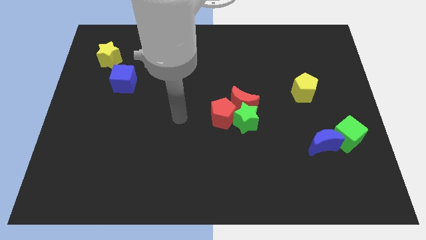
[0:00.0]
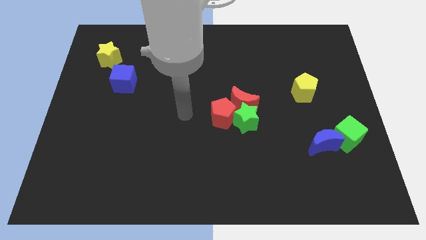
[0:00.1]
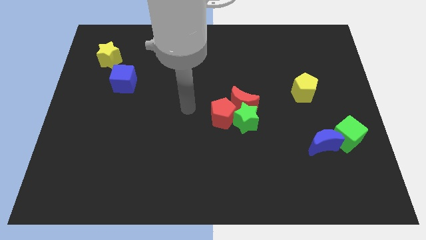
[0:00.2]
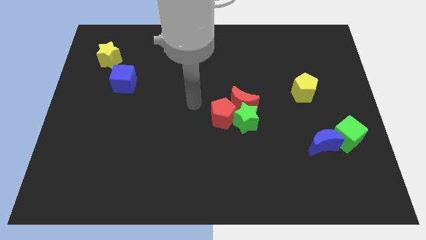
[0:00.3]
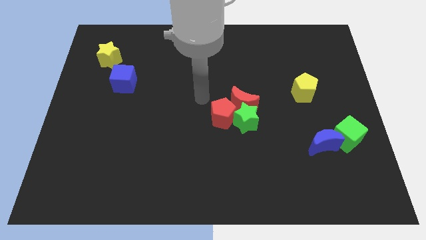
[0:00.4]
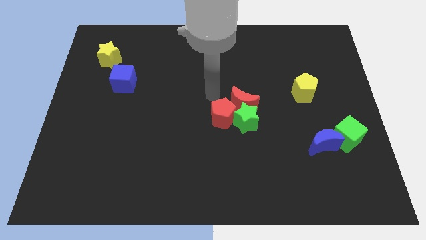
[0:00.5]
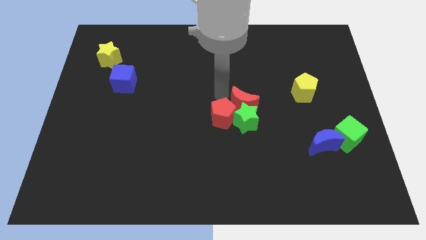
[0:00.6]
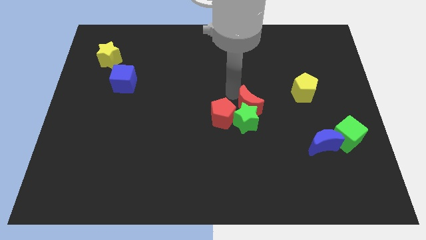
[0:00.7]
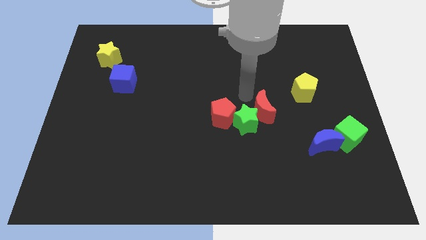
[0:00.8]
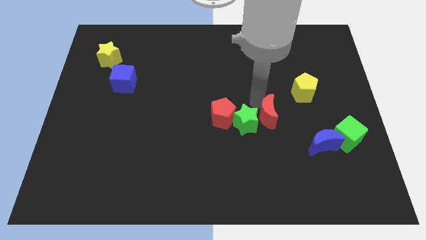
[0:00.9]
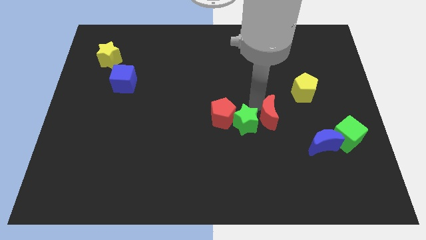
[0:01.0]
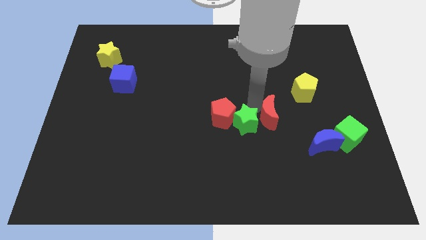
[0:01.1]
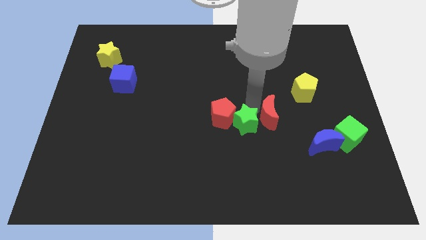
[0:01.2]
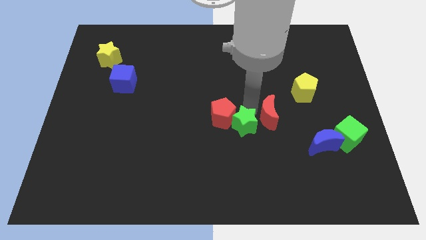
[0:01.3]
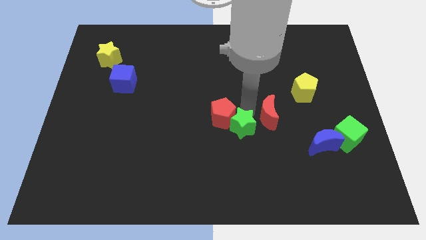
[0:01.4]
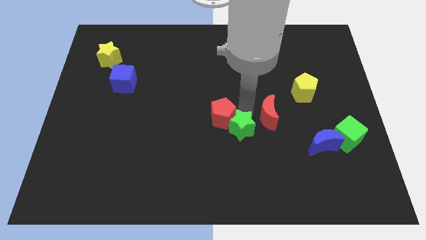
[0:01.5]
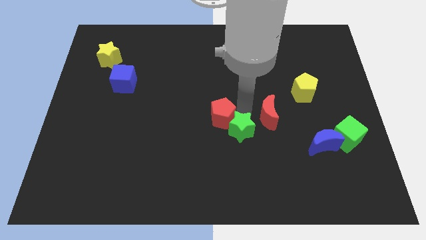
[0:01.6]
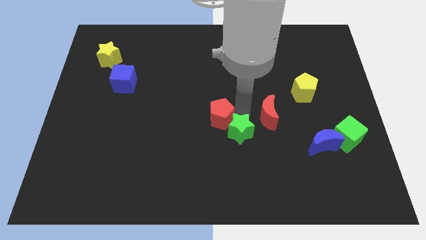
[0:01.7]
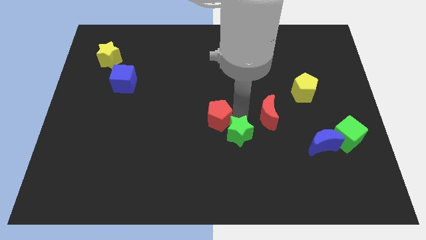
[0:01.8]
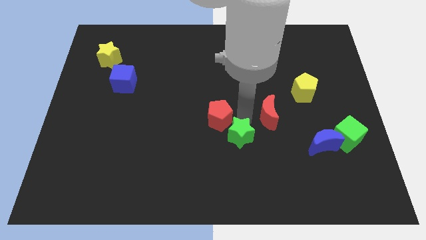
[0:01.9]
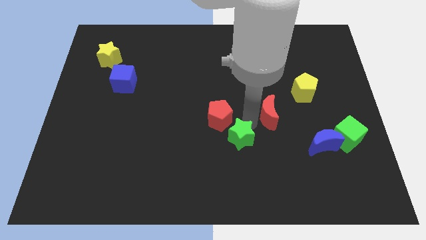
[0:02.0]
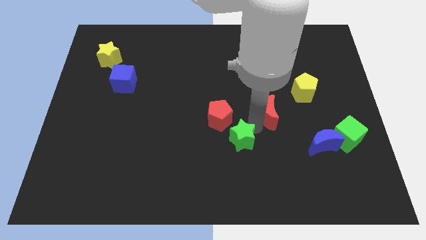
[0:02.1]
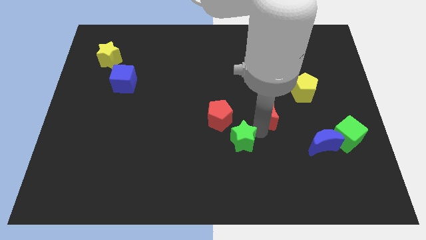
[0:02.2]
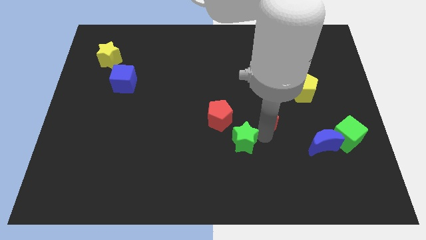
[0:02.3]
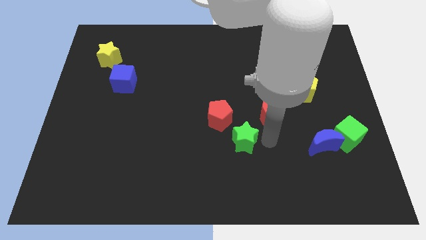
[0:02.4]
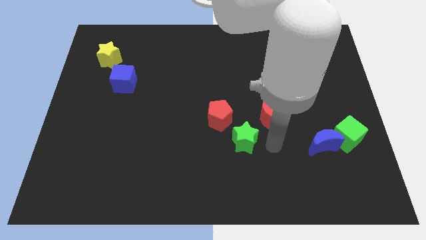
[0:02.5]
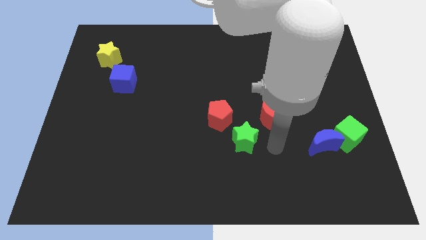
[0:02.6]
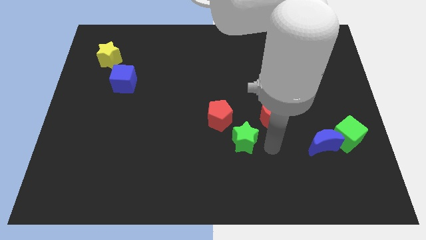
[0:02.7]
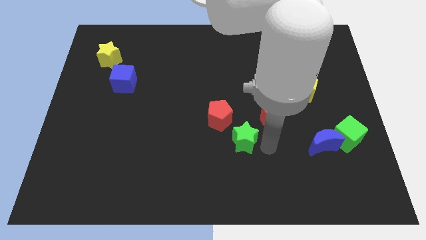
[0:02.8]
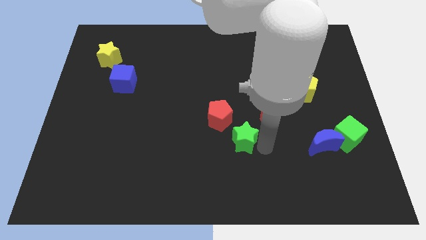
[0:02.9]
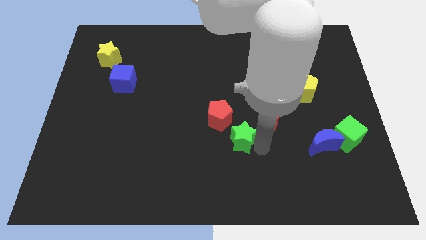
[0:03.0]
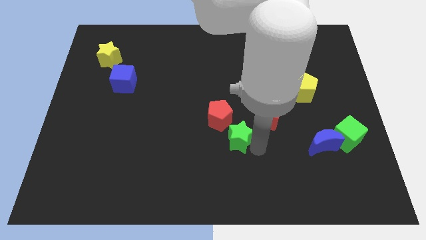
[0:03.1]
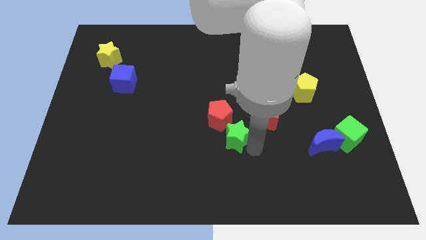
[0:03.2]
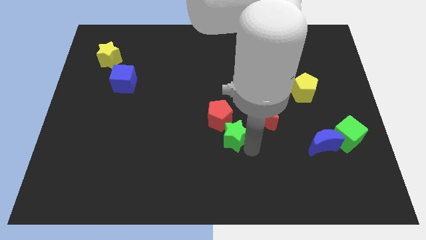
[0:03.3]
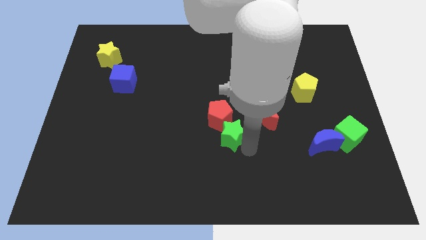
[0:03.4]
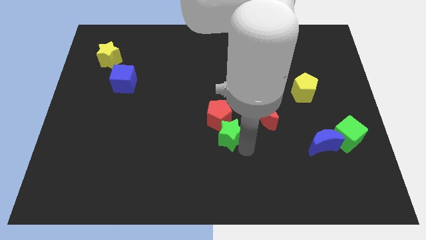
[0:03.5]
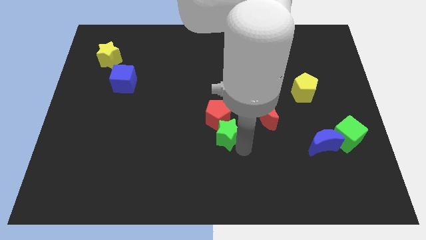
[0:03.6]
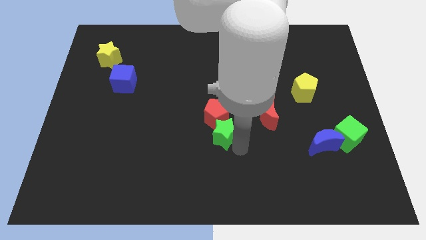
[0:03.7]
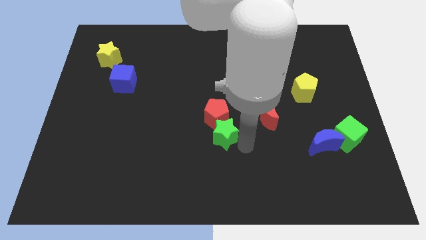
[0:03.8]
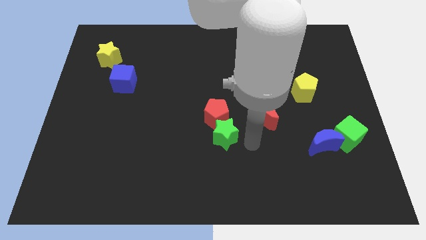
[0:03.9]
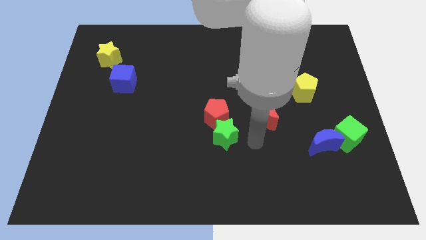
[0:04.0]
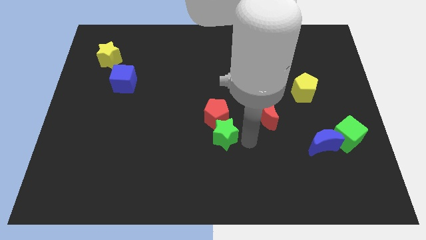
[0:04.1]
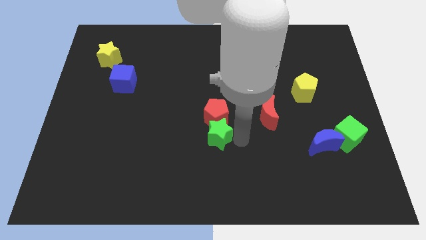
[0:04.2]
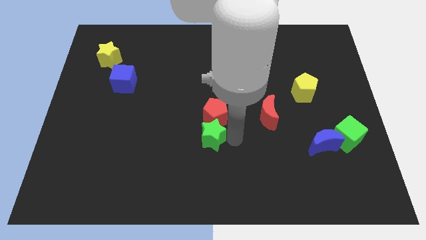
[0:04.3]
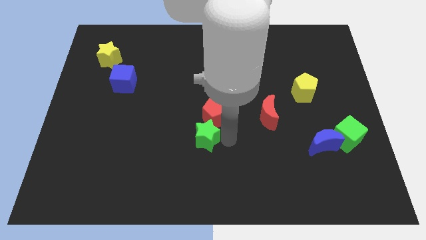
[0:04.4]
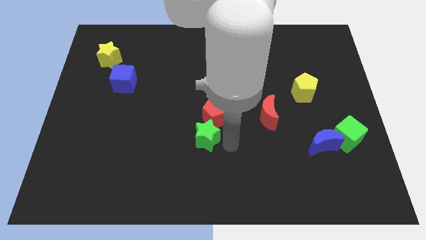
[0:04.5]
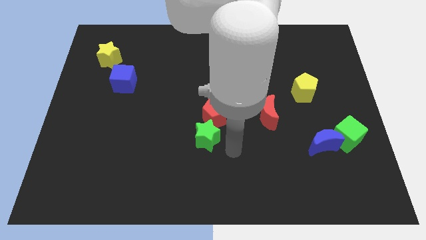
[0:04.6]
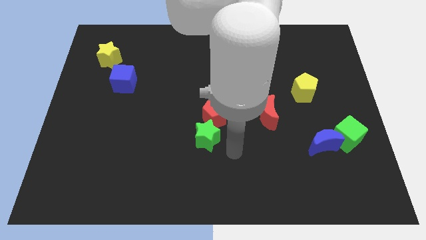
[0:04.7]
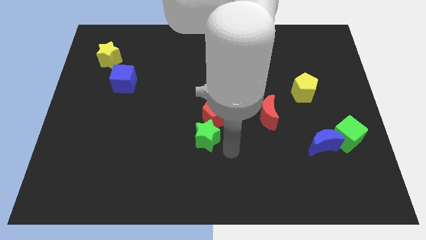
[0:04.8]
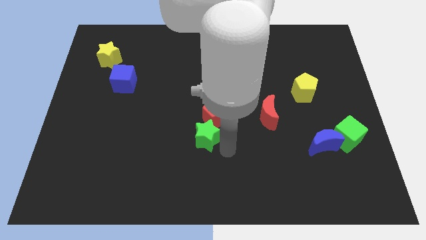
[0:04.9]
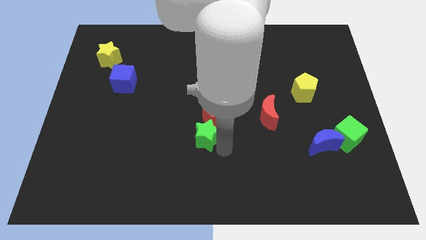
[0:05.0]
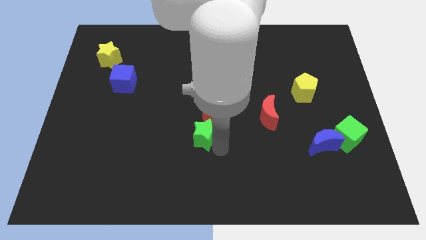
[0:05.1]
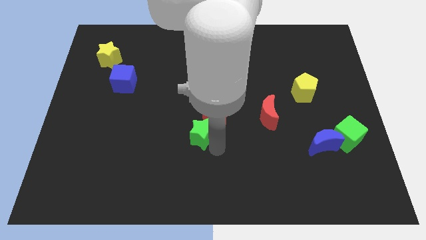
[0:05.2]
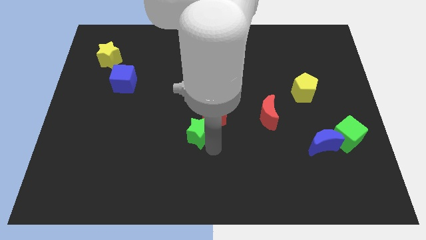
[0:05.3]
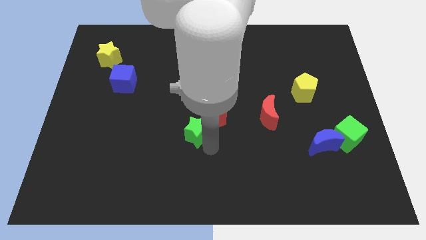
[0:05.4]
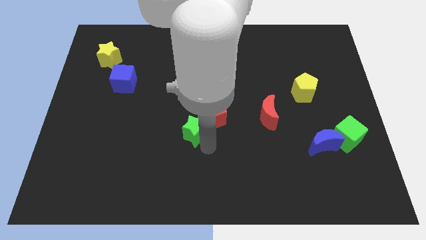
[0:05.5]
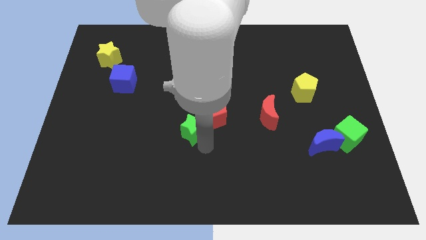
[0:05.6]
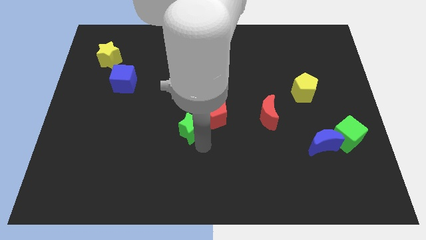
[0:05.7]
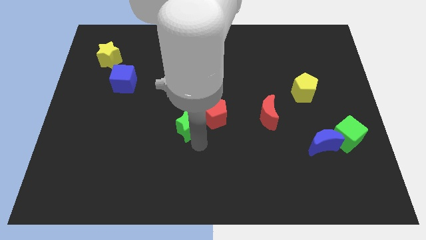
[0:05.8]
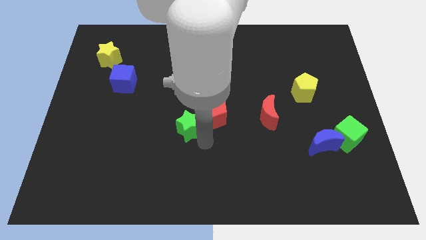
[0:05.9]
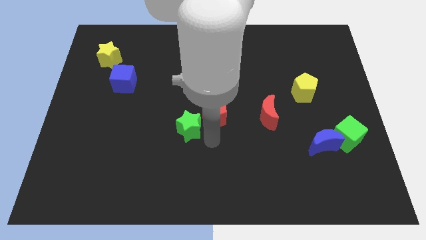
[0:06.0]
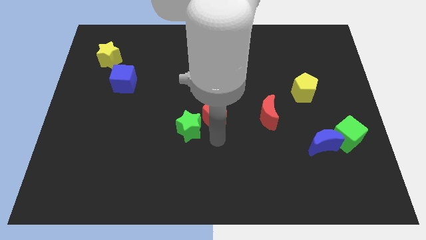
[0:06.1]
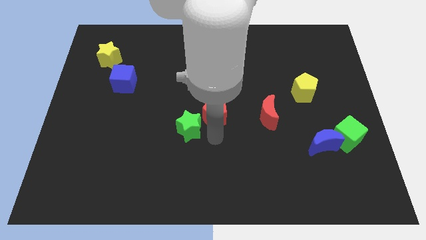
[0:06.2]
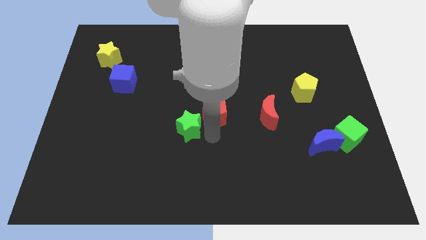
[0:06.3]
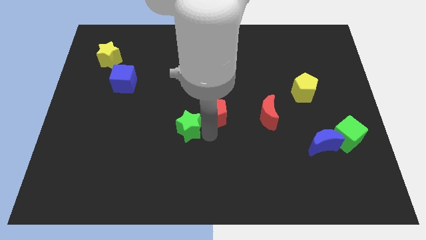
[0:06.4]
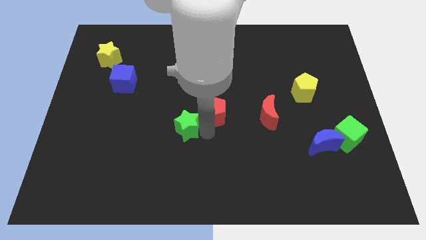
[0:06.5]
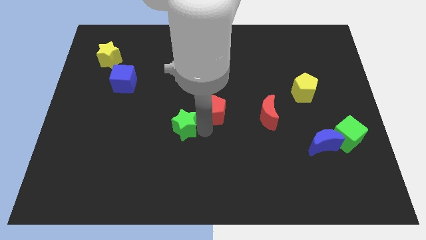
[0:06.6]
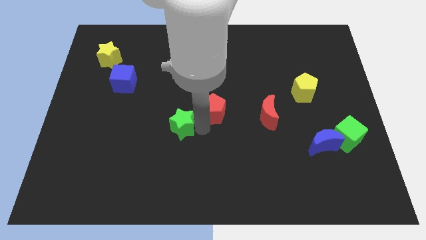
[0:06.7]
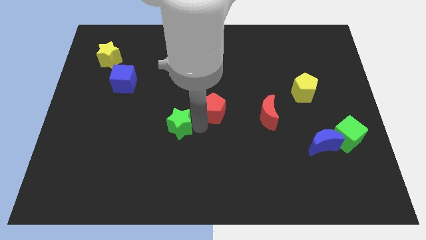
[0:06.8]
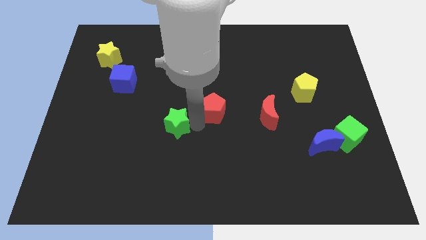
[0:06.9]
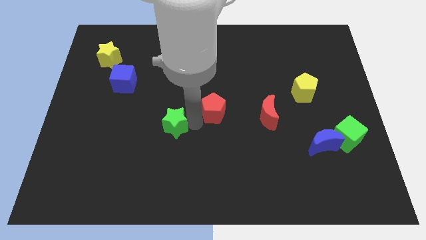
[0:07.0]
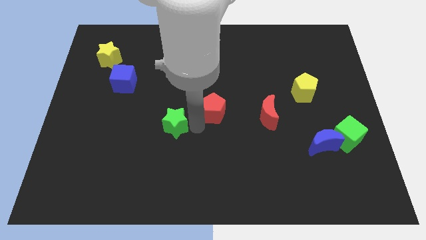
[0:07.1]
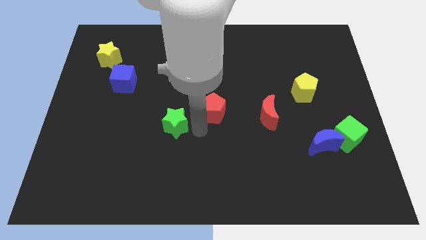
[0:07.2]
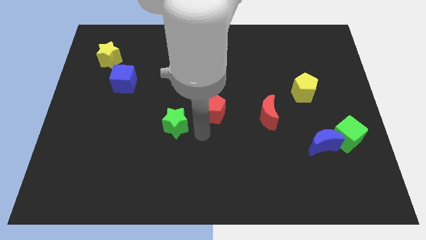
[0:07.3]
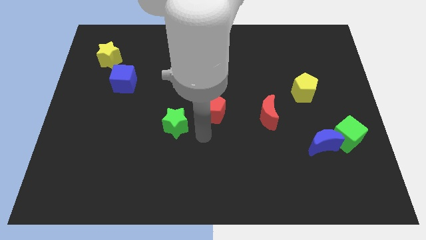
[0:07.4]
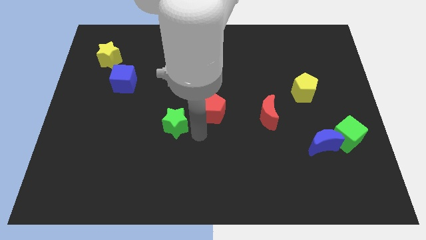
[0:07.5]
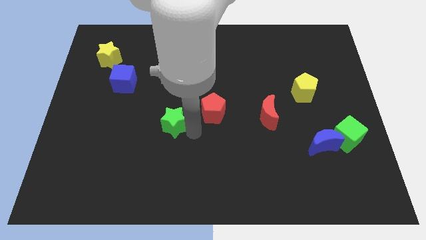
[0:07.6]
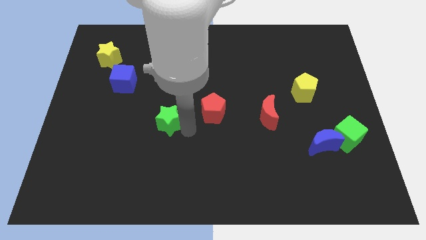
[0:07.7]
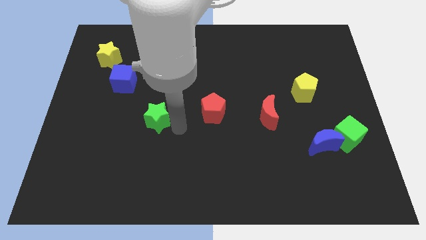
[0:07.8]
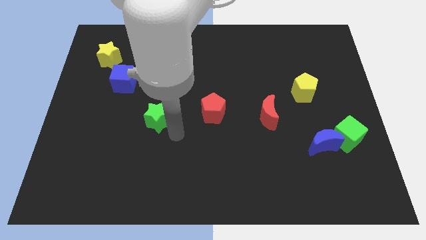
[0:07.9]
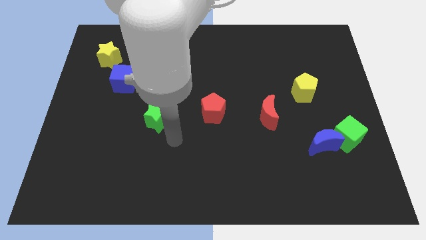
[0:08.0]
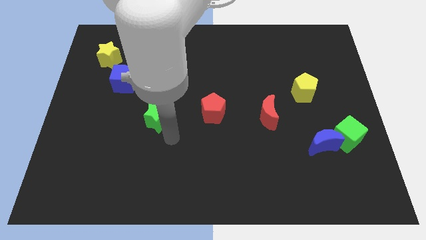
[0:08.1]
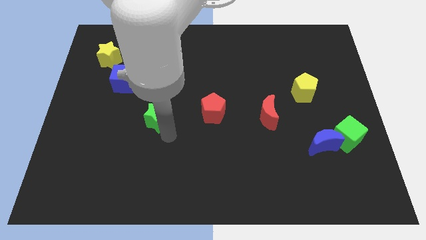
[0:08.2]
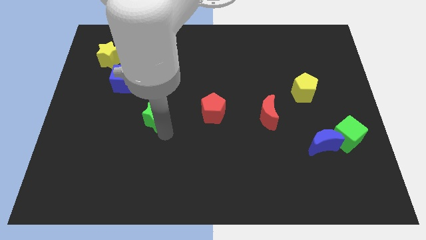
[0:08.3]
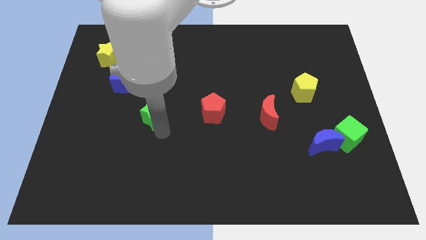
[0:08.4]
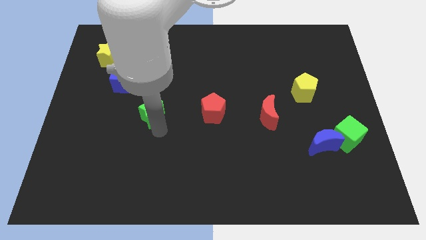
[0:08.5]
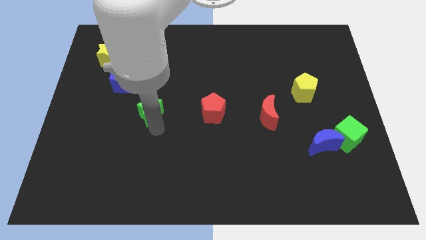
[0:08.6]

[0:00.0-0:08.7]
put the green star diagonally down and to the right of the blue cube
